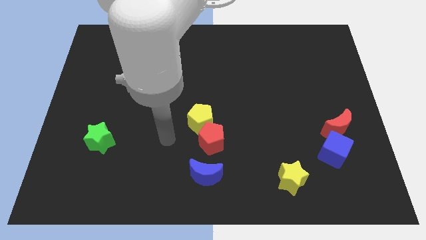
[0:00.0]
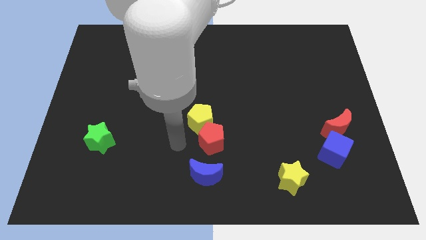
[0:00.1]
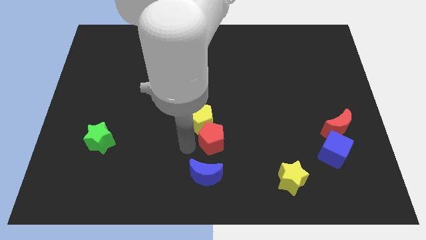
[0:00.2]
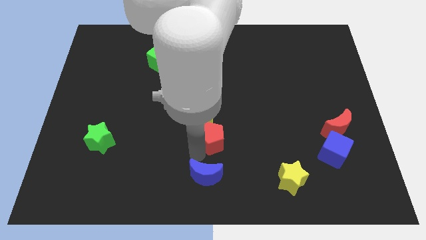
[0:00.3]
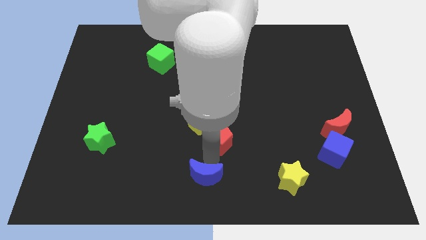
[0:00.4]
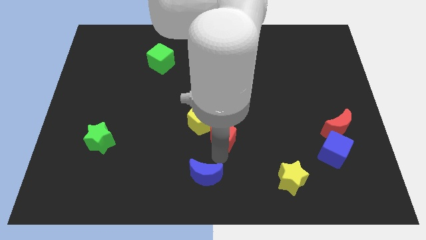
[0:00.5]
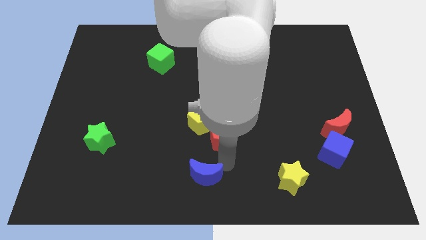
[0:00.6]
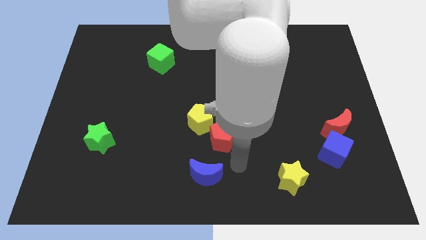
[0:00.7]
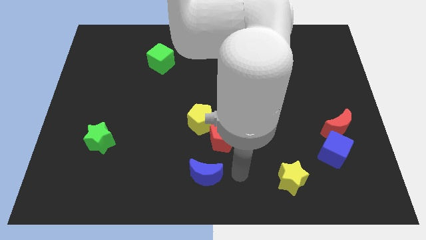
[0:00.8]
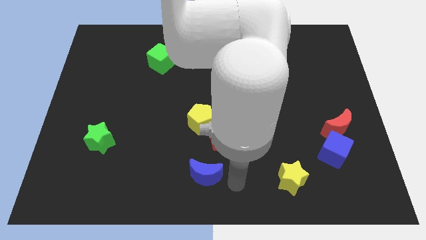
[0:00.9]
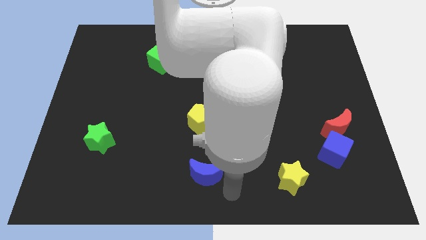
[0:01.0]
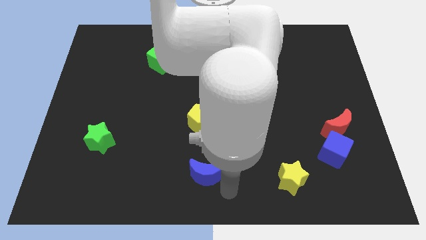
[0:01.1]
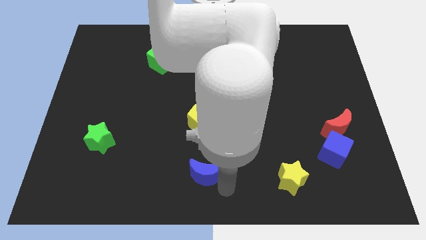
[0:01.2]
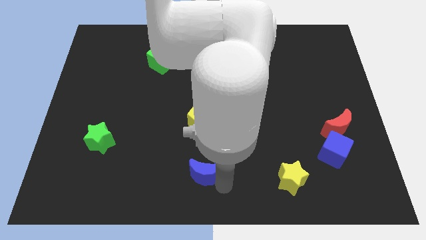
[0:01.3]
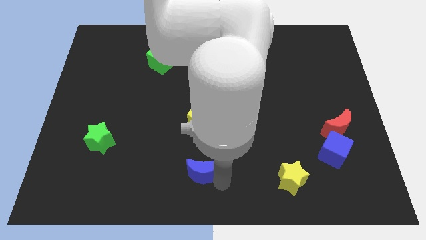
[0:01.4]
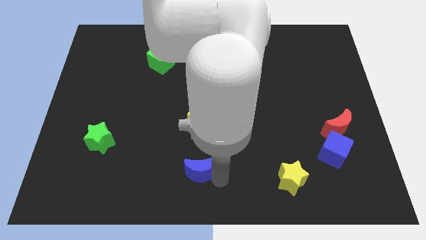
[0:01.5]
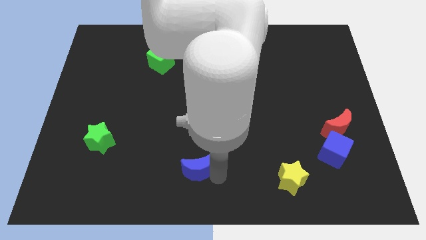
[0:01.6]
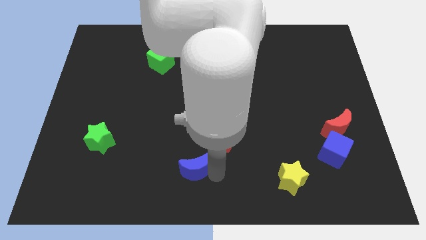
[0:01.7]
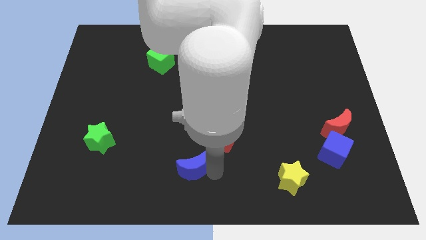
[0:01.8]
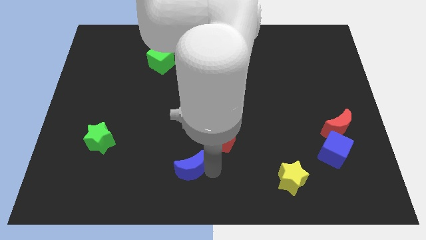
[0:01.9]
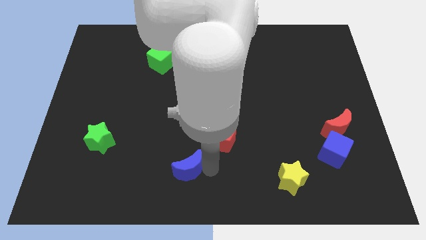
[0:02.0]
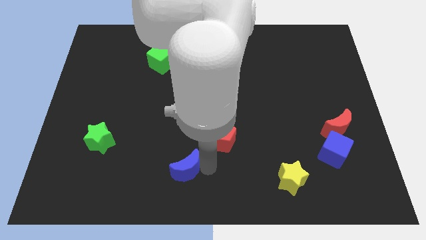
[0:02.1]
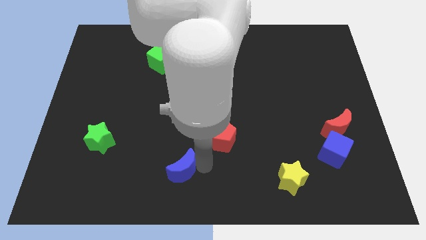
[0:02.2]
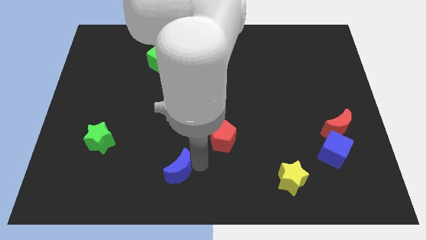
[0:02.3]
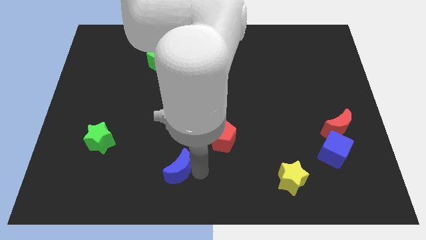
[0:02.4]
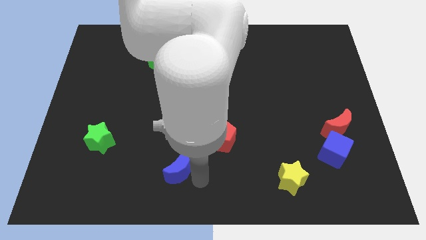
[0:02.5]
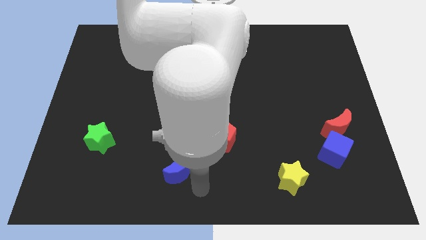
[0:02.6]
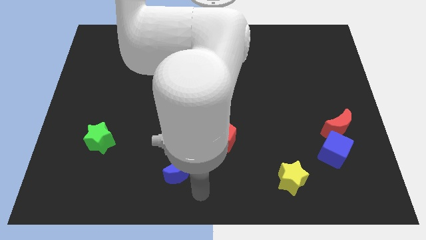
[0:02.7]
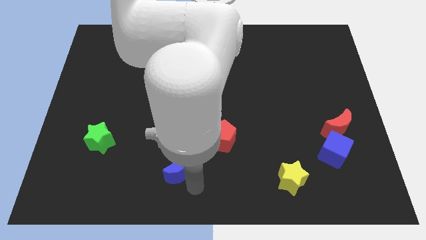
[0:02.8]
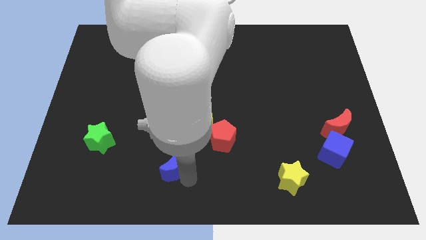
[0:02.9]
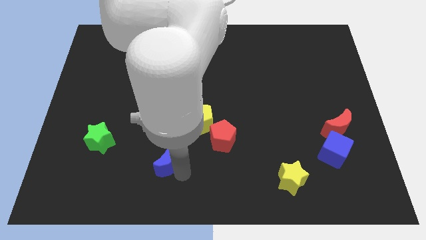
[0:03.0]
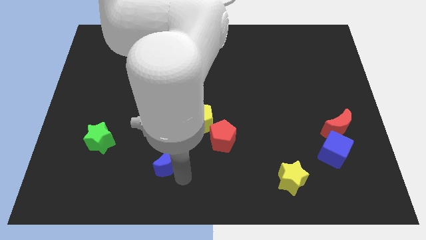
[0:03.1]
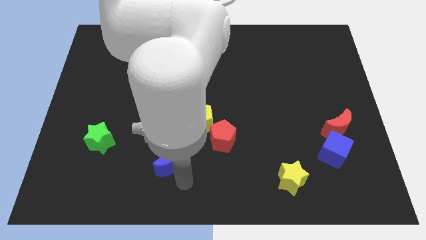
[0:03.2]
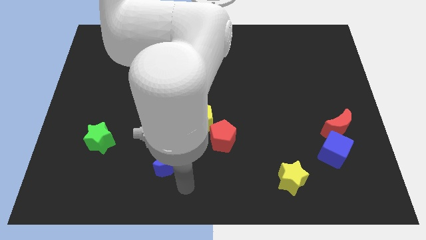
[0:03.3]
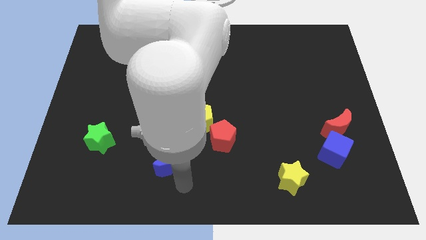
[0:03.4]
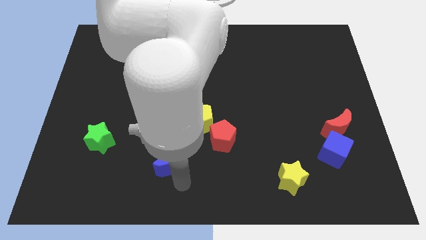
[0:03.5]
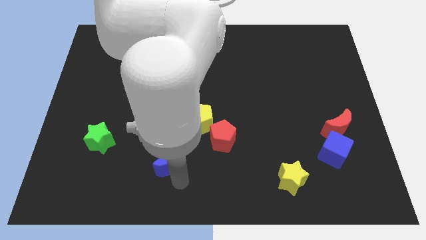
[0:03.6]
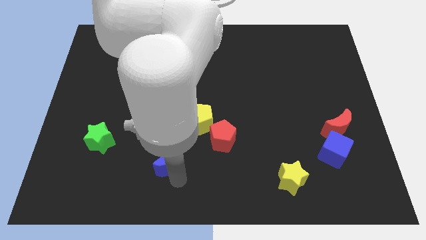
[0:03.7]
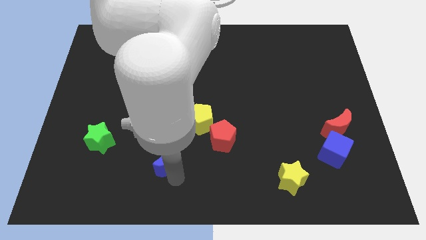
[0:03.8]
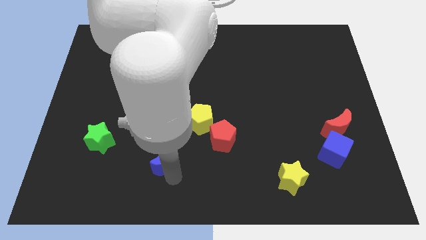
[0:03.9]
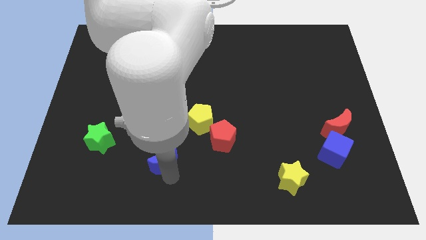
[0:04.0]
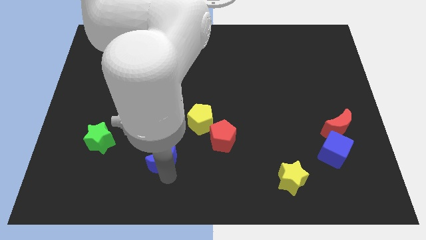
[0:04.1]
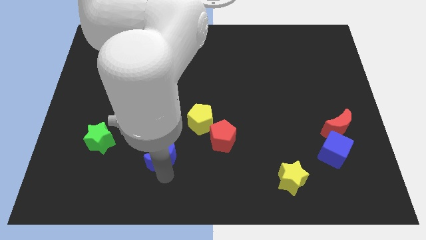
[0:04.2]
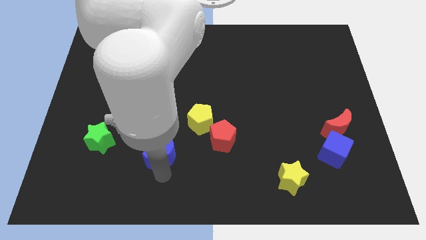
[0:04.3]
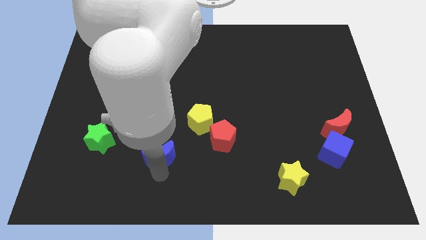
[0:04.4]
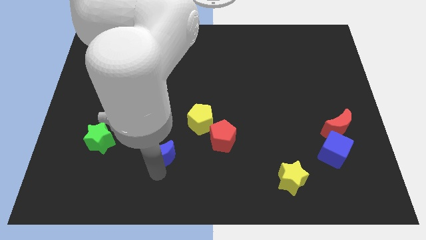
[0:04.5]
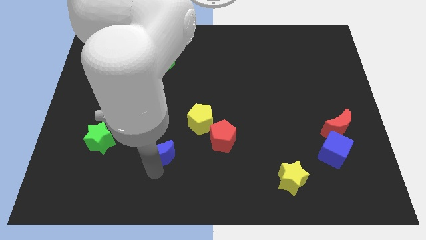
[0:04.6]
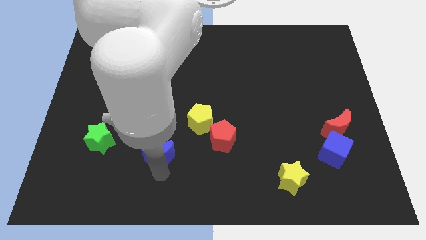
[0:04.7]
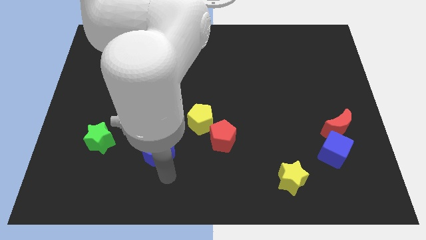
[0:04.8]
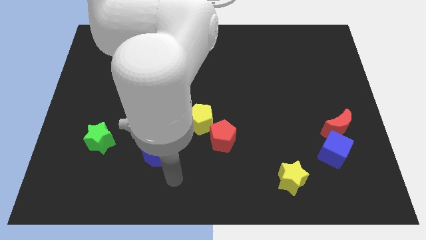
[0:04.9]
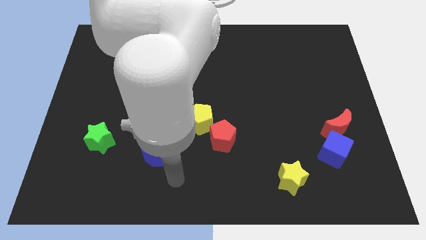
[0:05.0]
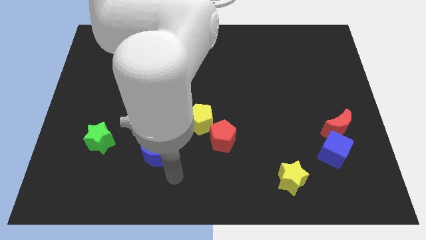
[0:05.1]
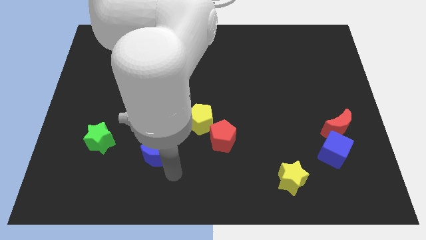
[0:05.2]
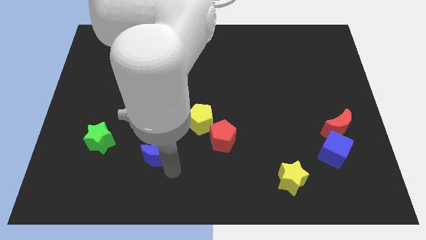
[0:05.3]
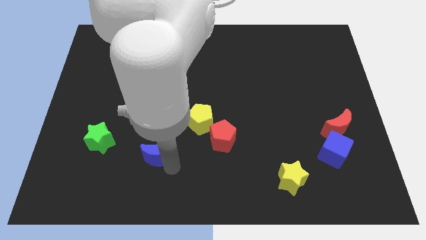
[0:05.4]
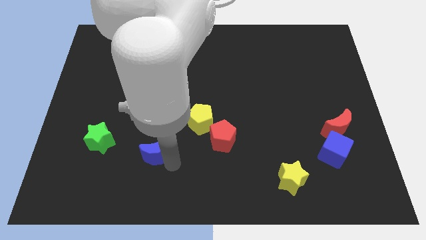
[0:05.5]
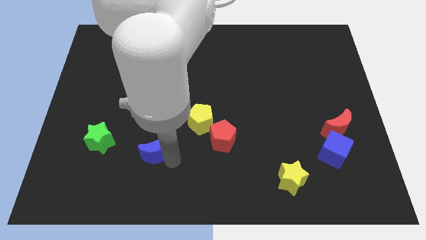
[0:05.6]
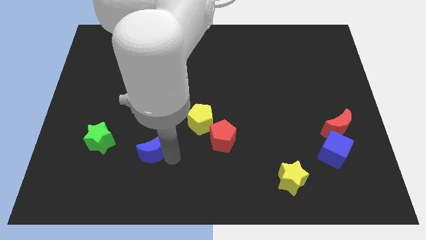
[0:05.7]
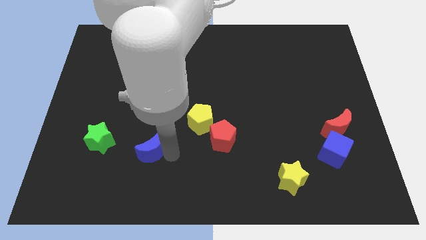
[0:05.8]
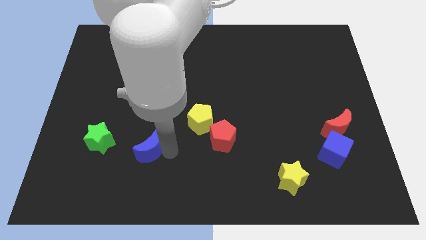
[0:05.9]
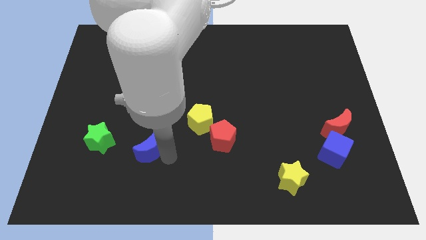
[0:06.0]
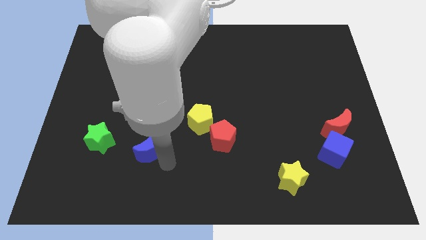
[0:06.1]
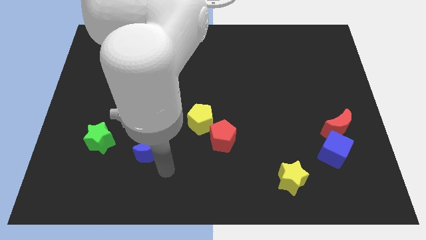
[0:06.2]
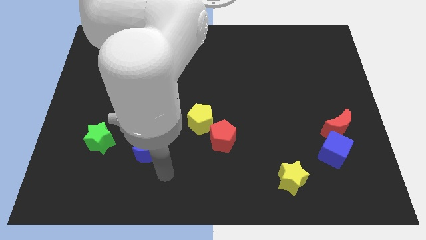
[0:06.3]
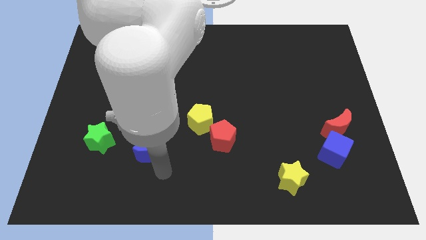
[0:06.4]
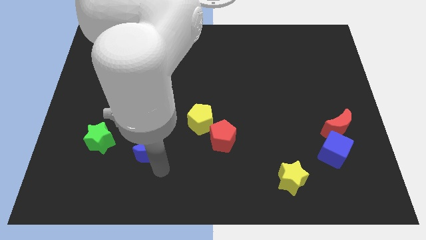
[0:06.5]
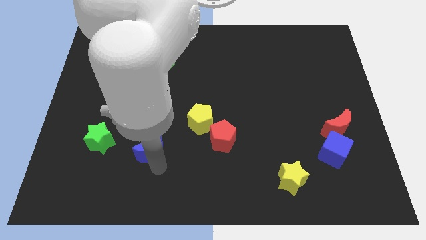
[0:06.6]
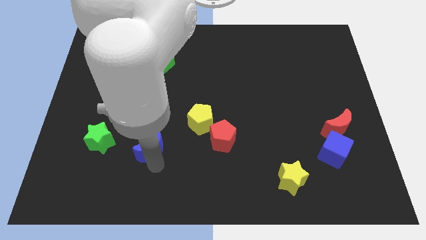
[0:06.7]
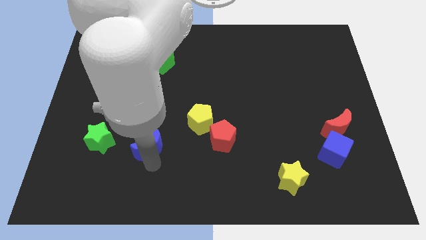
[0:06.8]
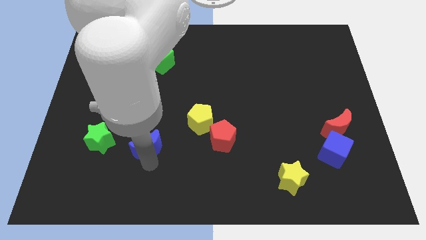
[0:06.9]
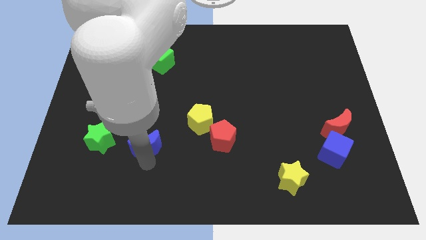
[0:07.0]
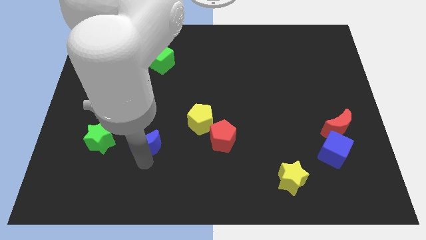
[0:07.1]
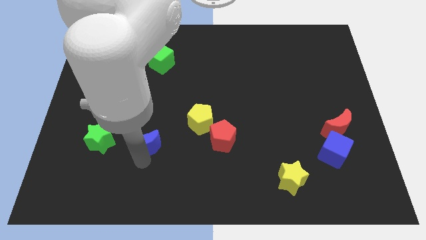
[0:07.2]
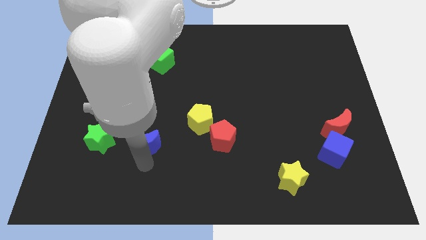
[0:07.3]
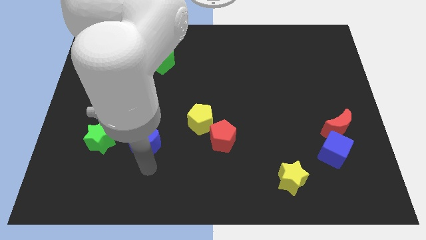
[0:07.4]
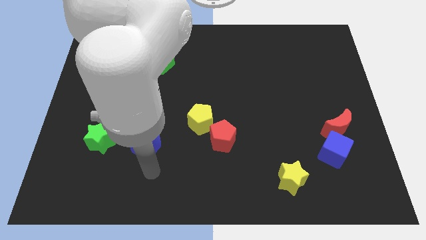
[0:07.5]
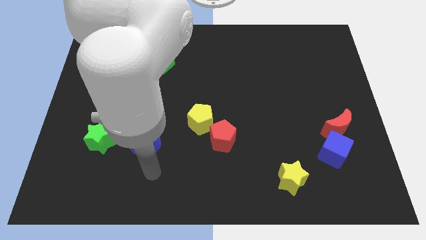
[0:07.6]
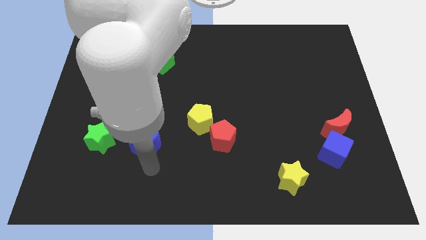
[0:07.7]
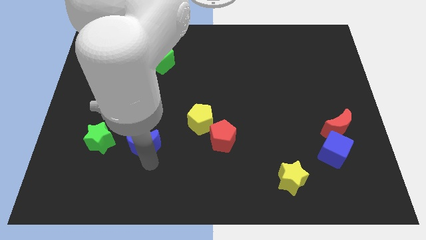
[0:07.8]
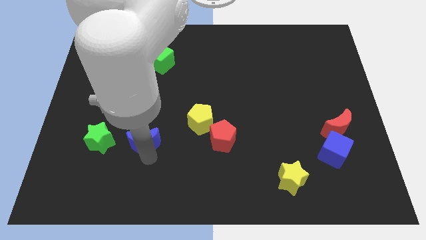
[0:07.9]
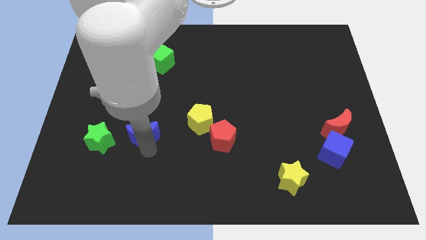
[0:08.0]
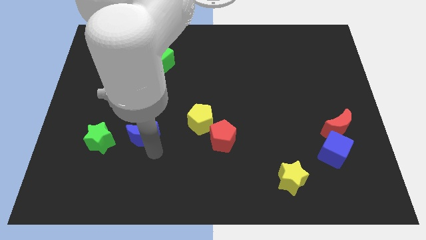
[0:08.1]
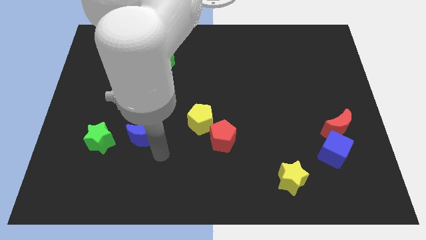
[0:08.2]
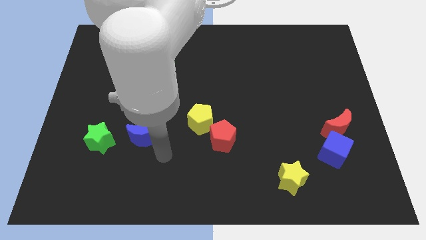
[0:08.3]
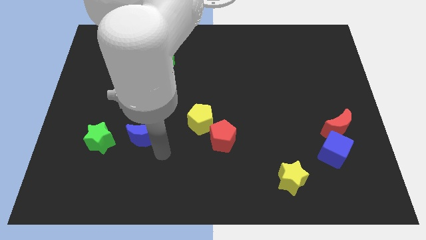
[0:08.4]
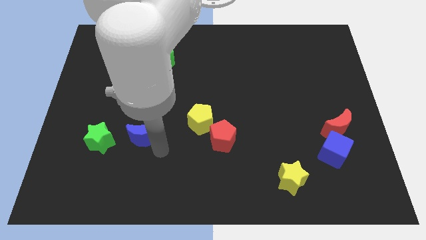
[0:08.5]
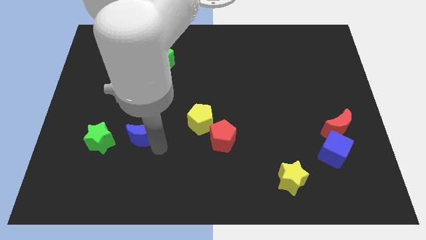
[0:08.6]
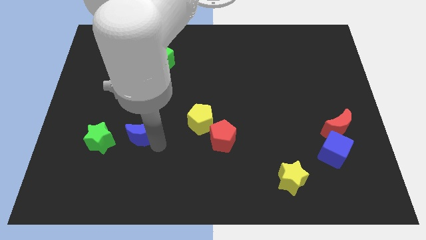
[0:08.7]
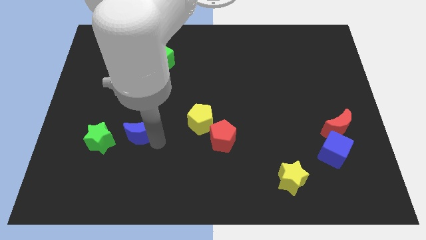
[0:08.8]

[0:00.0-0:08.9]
slide the blue moon diagonally up and to the right of the green star
